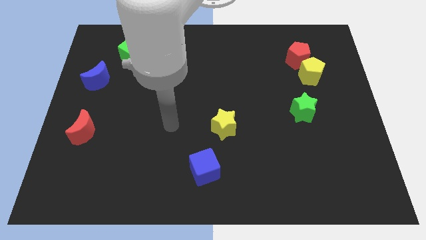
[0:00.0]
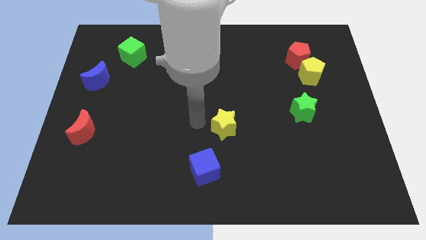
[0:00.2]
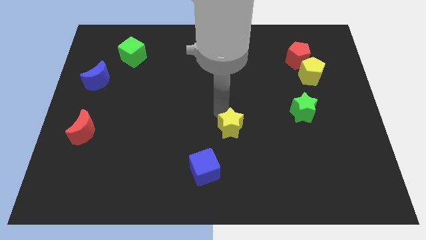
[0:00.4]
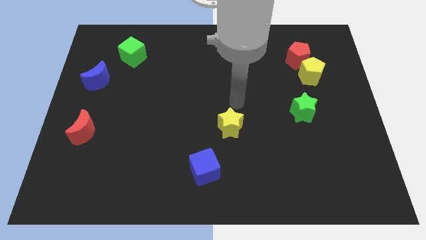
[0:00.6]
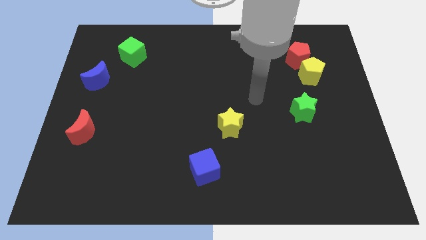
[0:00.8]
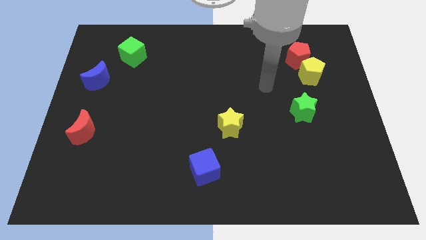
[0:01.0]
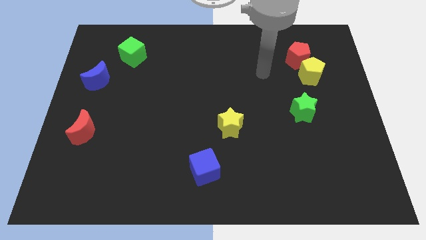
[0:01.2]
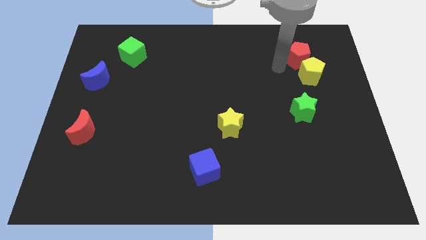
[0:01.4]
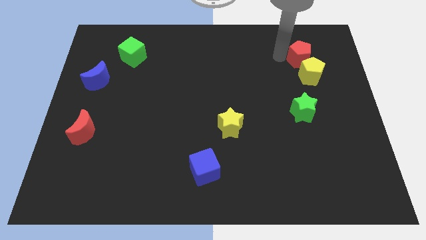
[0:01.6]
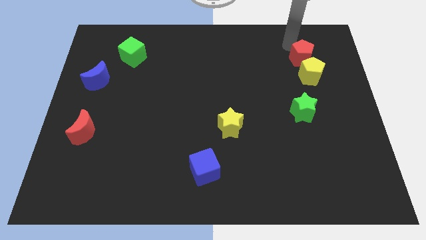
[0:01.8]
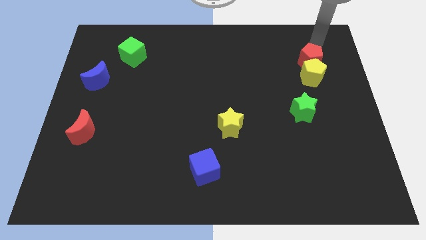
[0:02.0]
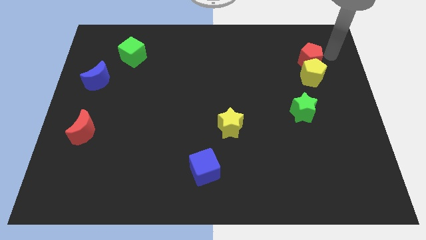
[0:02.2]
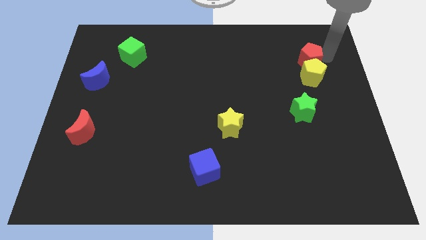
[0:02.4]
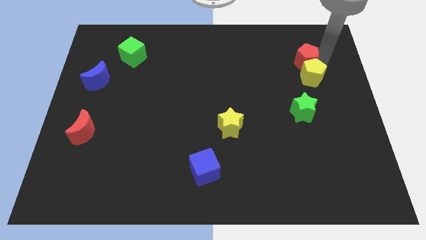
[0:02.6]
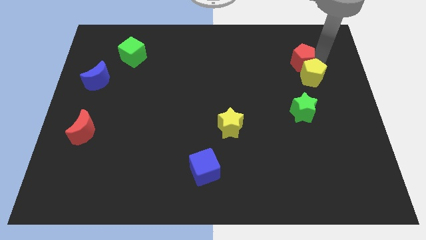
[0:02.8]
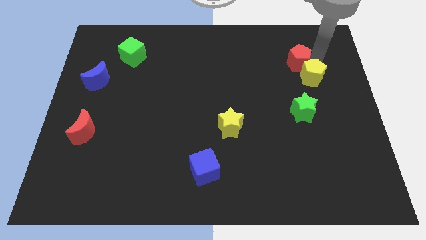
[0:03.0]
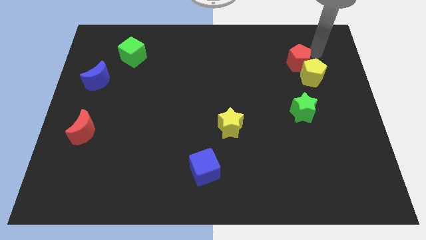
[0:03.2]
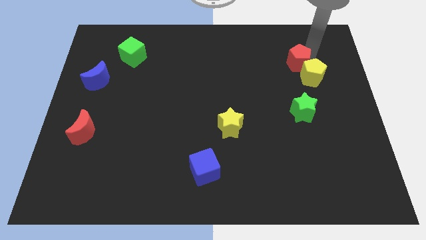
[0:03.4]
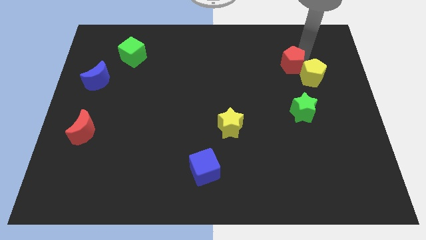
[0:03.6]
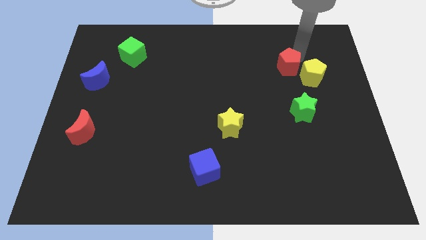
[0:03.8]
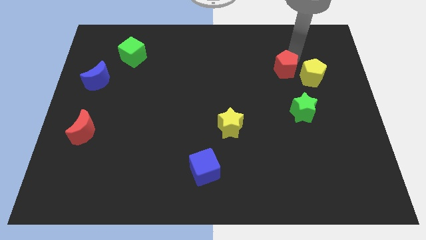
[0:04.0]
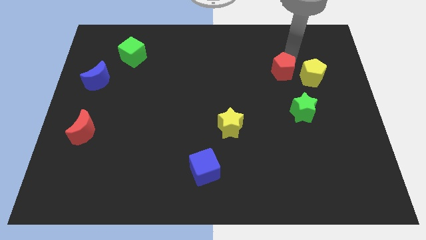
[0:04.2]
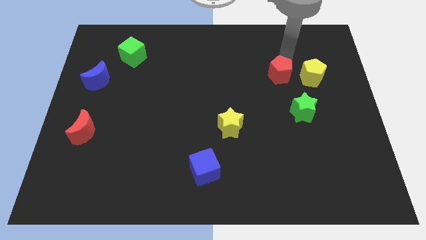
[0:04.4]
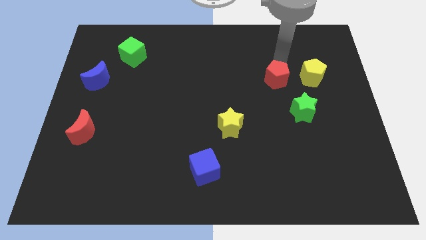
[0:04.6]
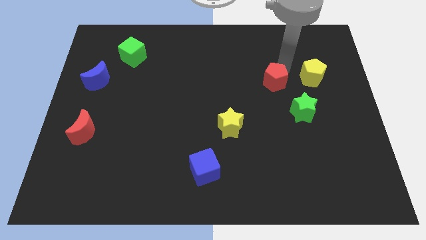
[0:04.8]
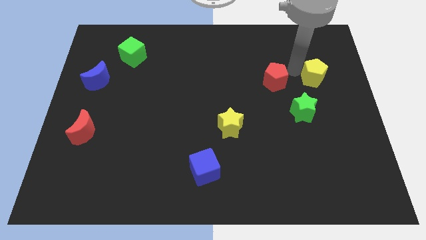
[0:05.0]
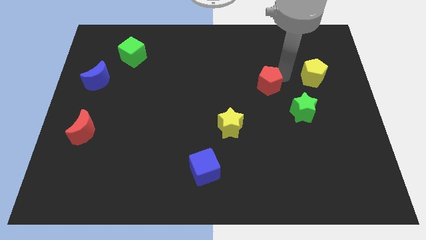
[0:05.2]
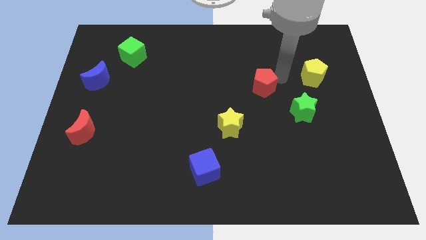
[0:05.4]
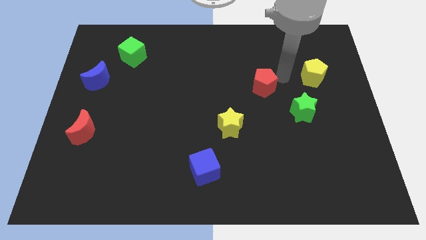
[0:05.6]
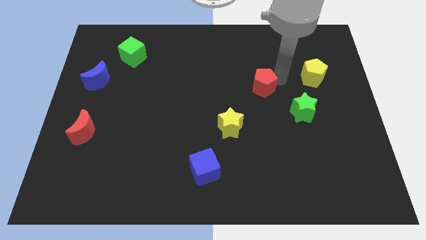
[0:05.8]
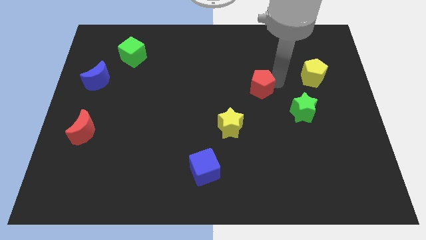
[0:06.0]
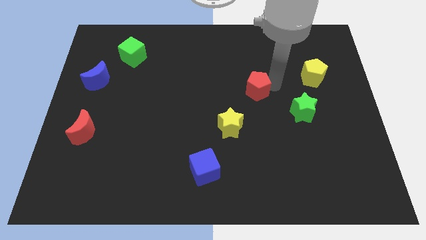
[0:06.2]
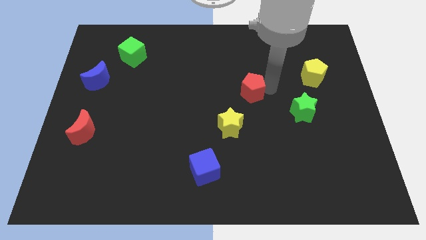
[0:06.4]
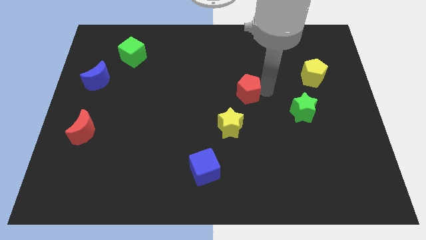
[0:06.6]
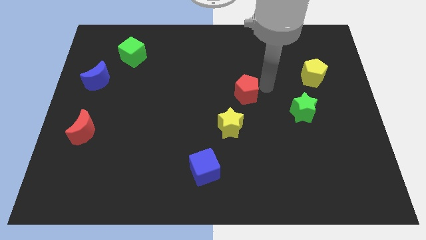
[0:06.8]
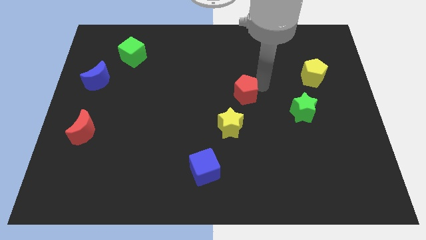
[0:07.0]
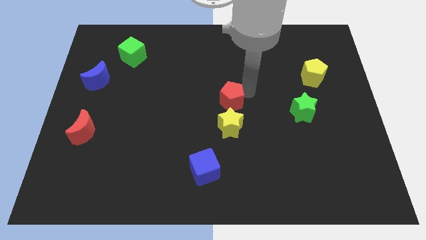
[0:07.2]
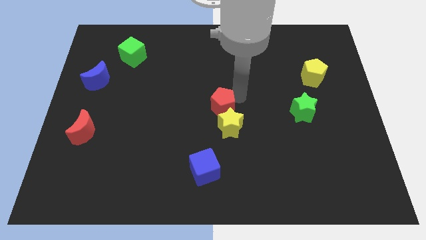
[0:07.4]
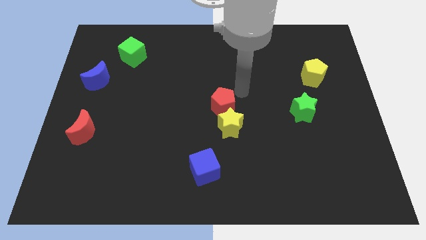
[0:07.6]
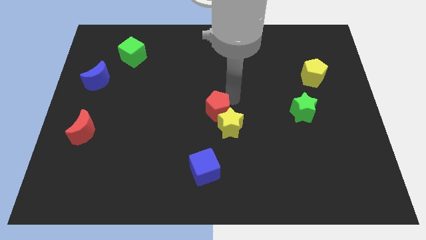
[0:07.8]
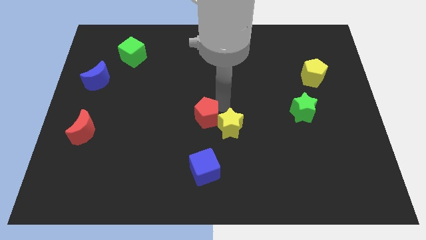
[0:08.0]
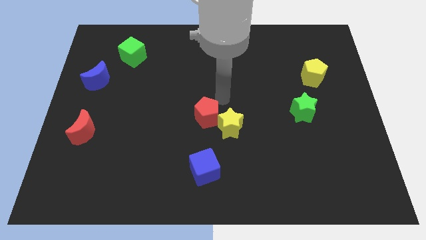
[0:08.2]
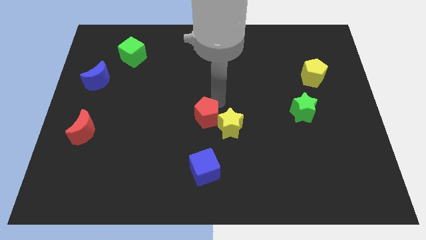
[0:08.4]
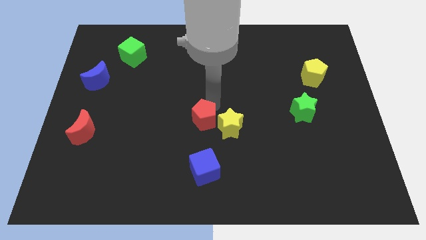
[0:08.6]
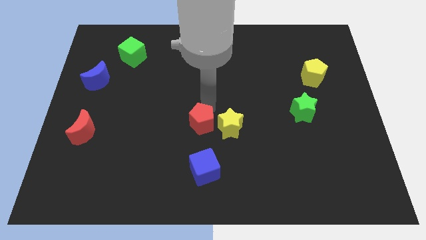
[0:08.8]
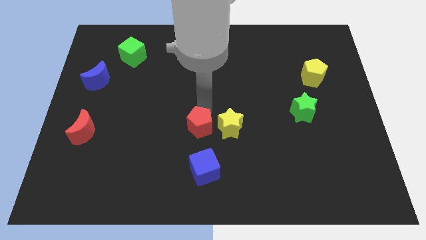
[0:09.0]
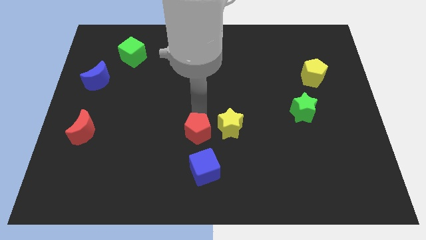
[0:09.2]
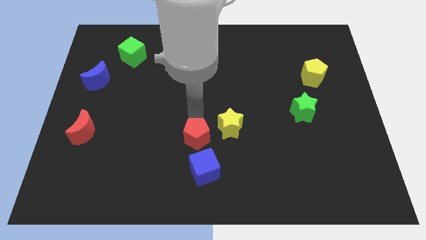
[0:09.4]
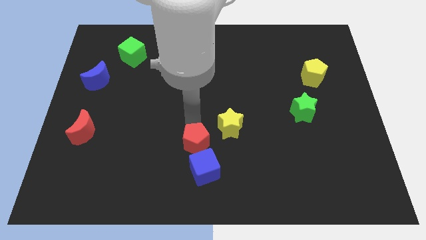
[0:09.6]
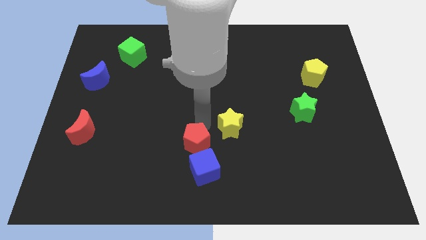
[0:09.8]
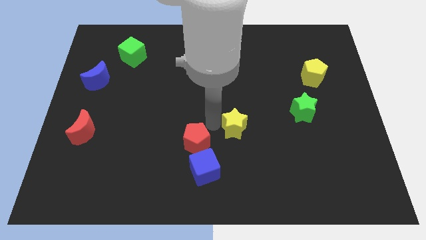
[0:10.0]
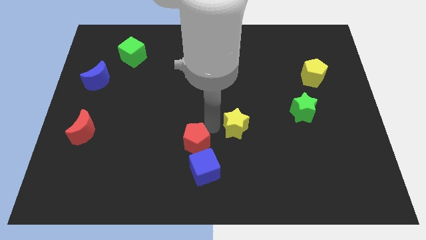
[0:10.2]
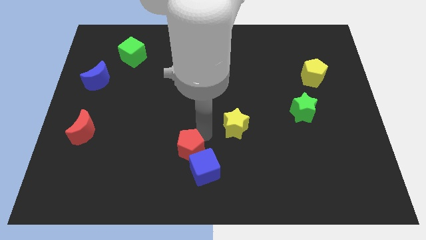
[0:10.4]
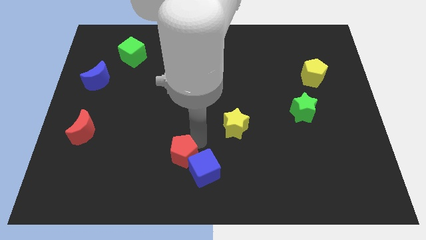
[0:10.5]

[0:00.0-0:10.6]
slide the red pentagon just left of the blue cube

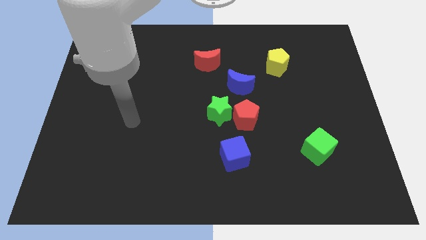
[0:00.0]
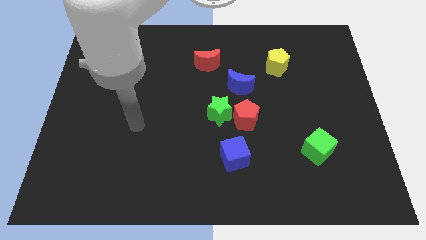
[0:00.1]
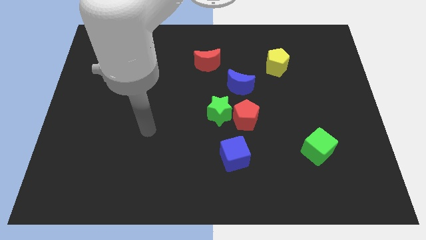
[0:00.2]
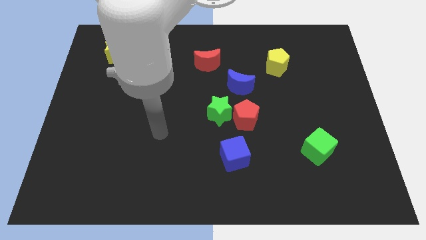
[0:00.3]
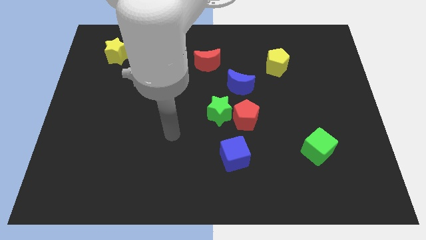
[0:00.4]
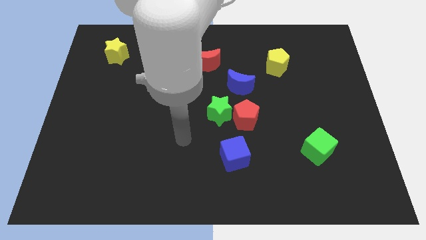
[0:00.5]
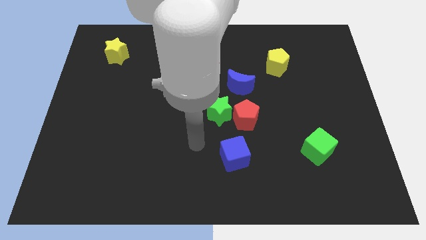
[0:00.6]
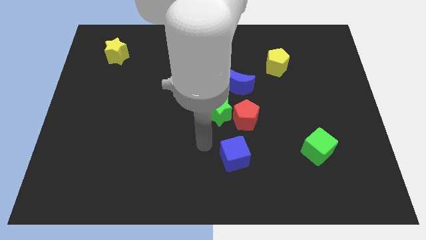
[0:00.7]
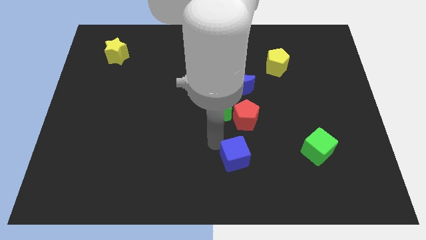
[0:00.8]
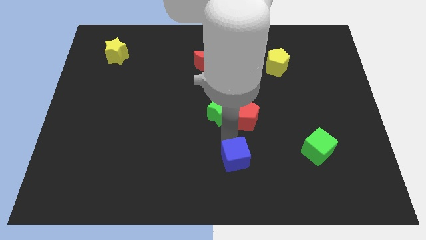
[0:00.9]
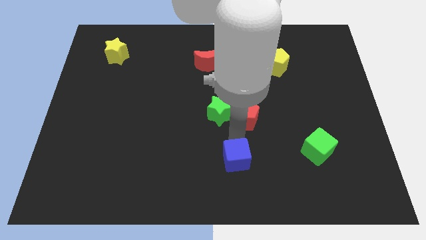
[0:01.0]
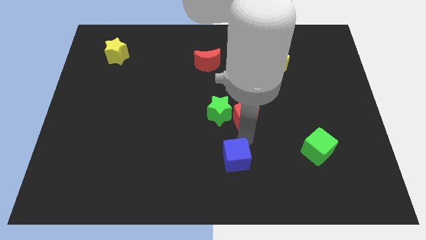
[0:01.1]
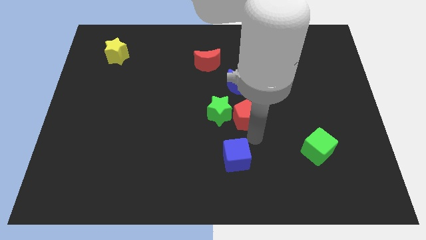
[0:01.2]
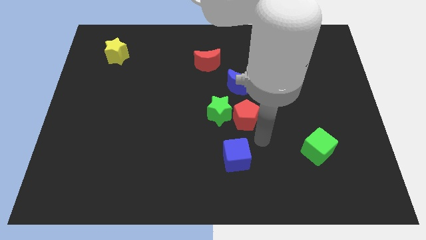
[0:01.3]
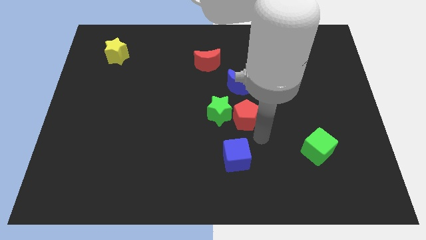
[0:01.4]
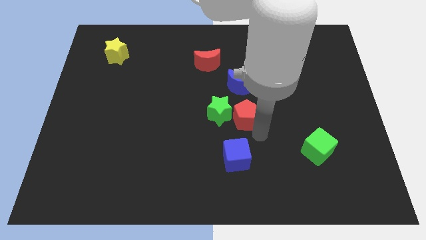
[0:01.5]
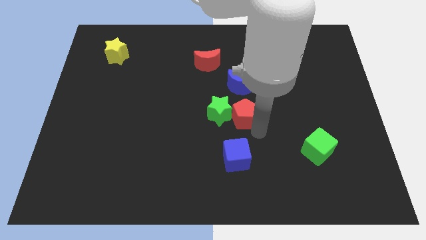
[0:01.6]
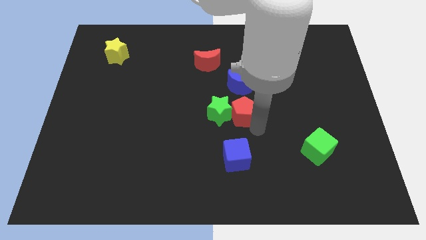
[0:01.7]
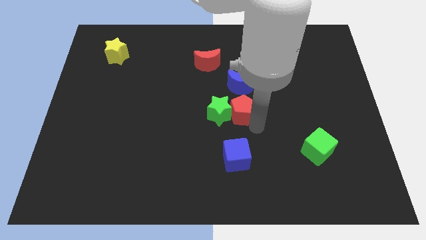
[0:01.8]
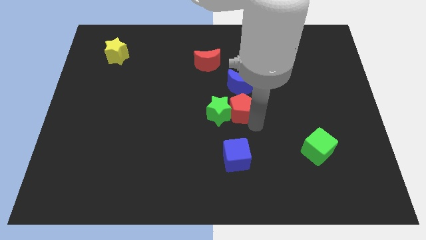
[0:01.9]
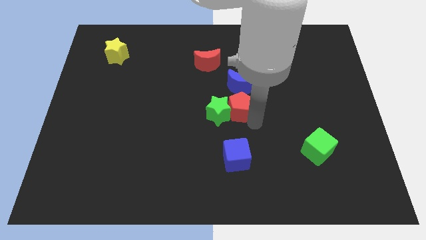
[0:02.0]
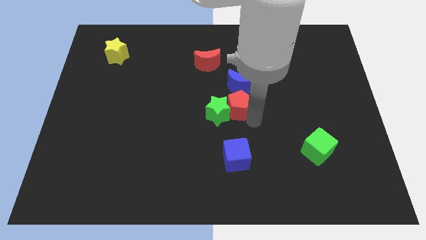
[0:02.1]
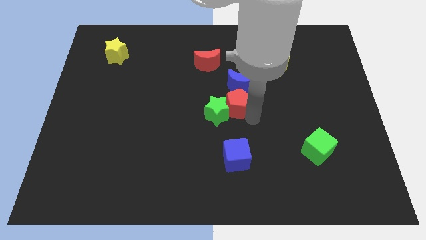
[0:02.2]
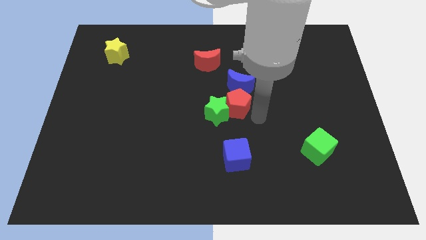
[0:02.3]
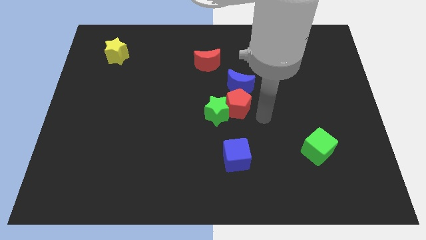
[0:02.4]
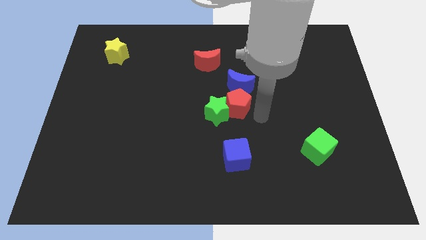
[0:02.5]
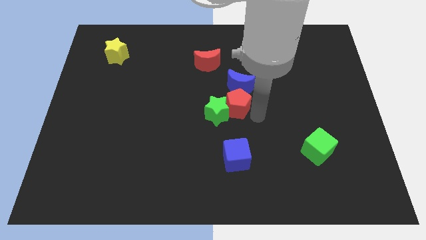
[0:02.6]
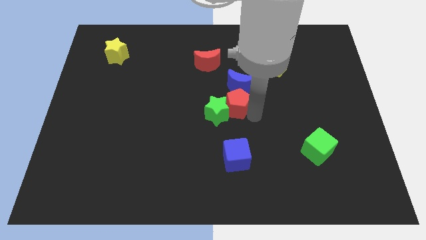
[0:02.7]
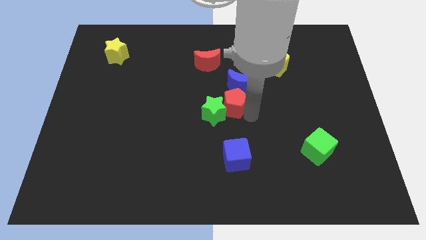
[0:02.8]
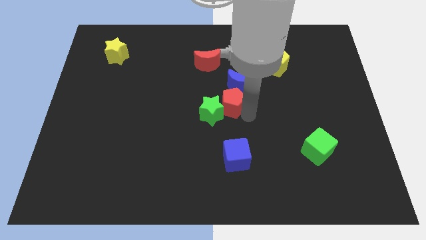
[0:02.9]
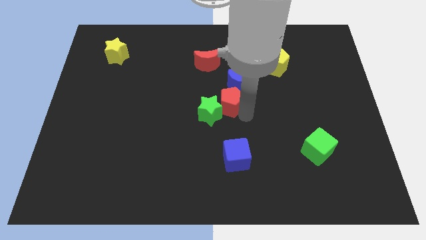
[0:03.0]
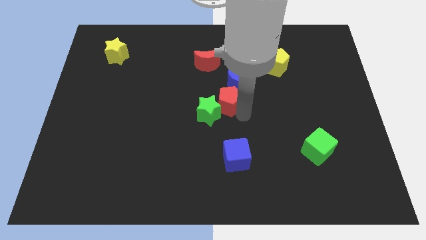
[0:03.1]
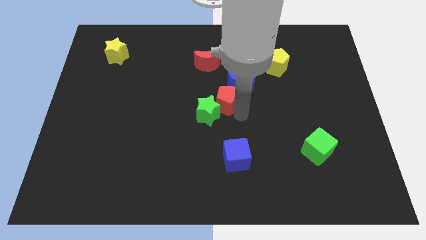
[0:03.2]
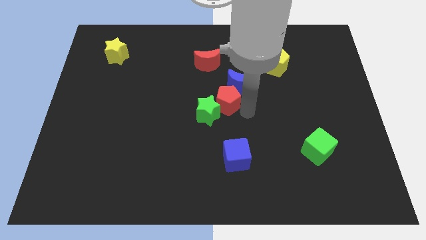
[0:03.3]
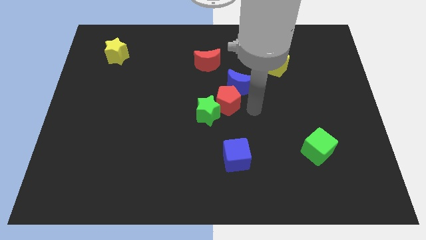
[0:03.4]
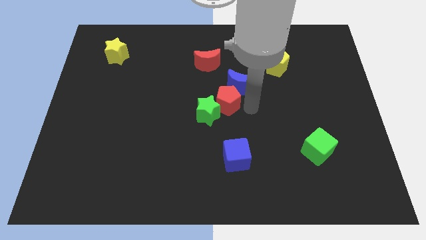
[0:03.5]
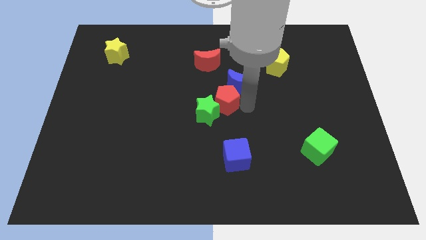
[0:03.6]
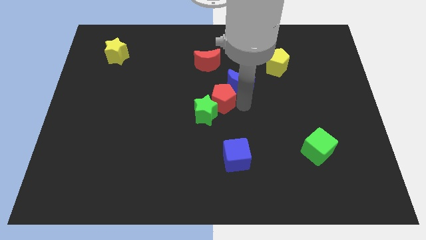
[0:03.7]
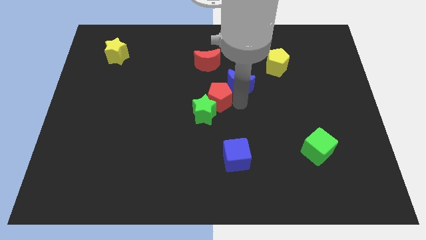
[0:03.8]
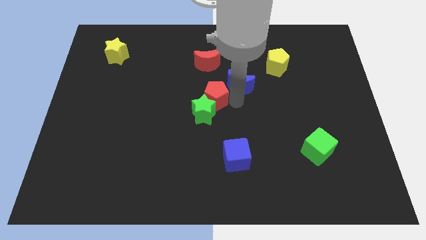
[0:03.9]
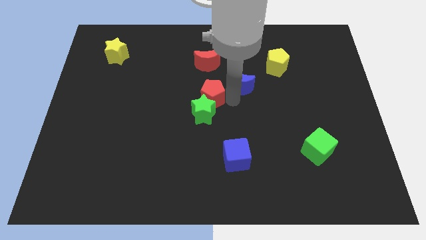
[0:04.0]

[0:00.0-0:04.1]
push the red pentagon to the top left side of the green star
